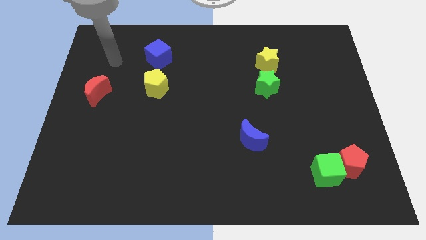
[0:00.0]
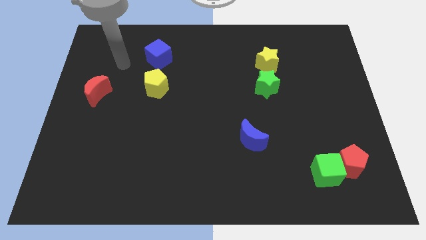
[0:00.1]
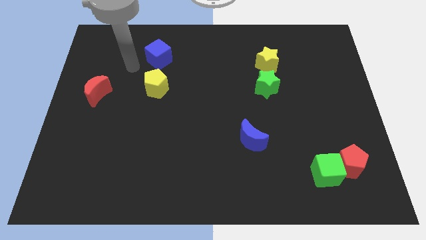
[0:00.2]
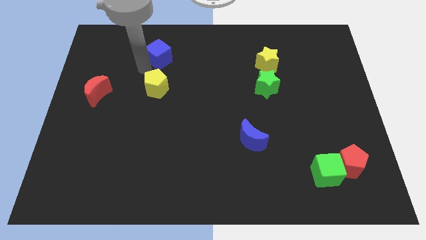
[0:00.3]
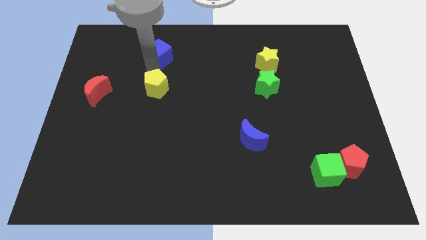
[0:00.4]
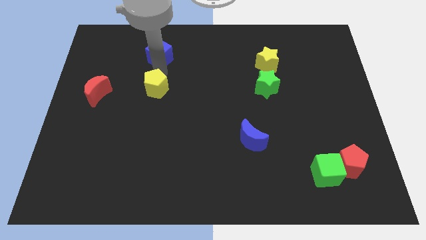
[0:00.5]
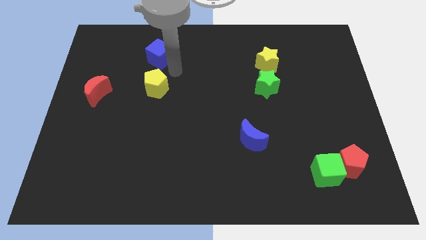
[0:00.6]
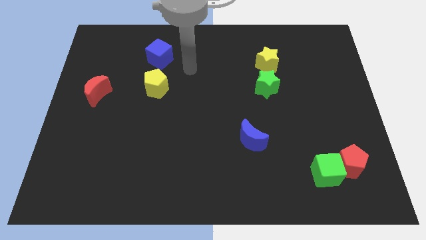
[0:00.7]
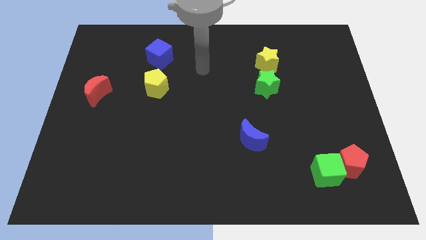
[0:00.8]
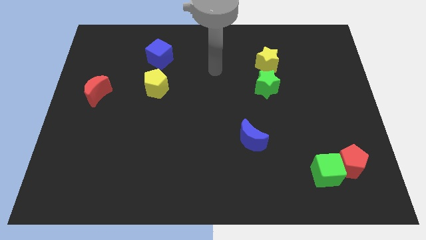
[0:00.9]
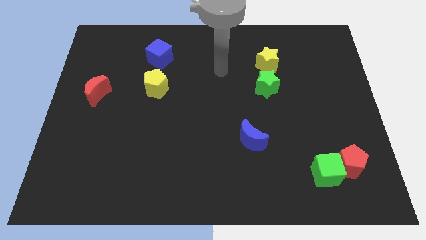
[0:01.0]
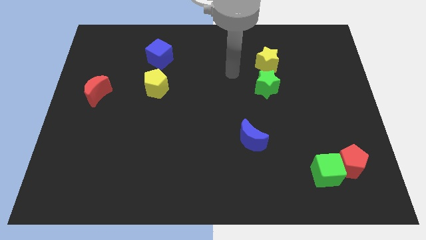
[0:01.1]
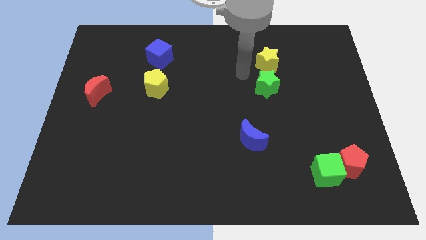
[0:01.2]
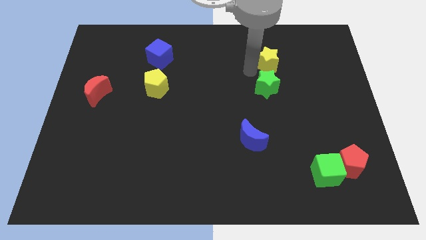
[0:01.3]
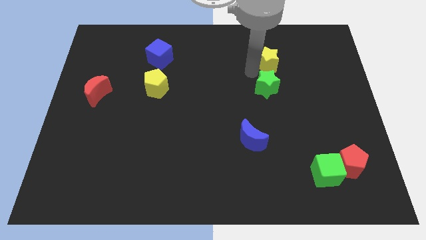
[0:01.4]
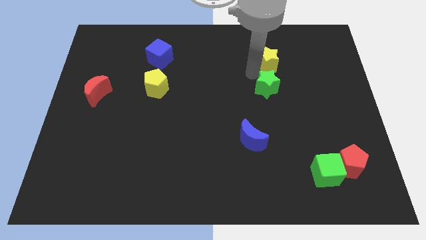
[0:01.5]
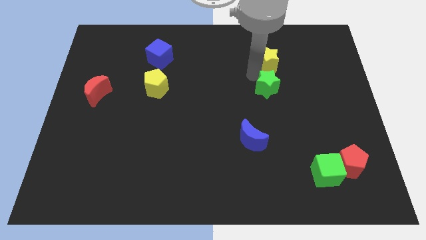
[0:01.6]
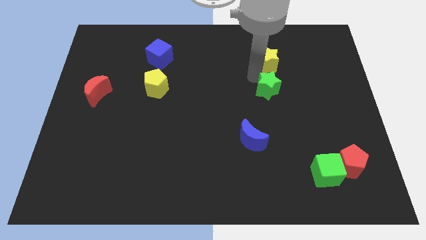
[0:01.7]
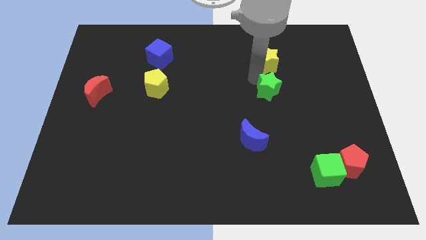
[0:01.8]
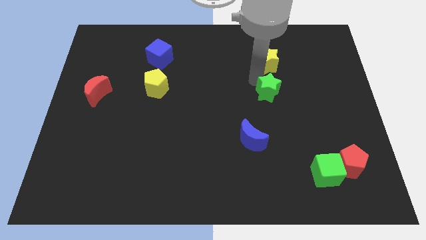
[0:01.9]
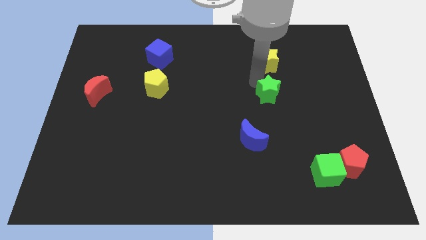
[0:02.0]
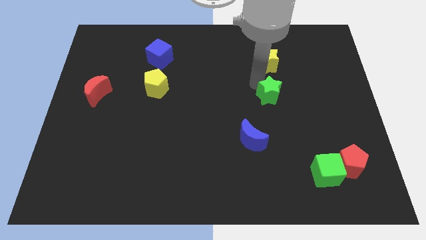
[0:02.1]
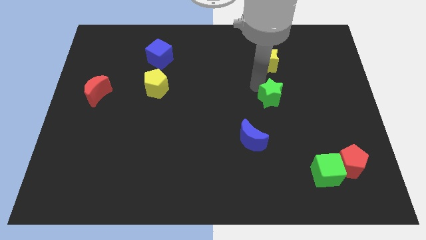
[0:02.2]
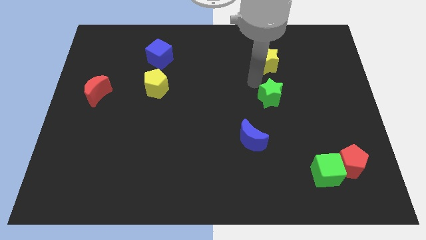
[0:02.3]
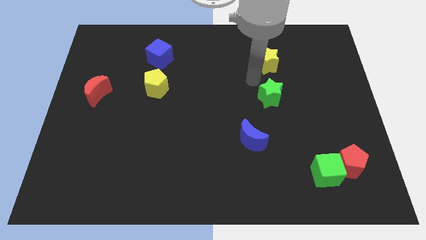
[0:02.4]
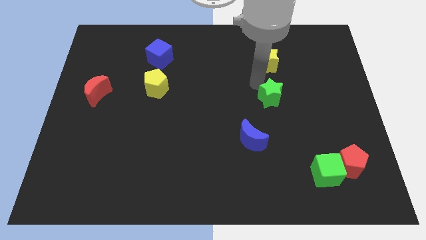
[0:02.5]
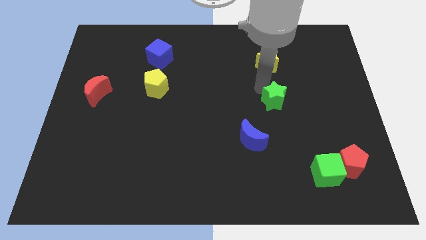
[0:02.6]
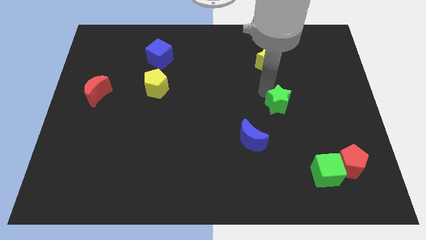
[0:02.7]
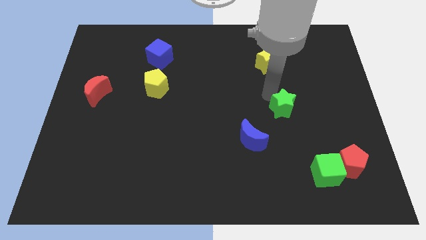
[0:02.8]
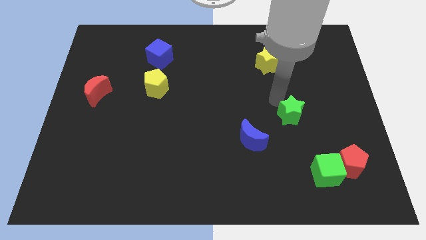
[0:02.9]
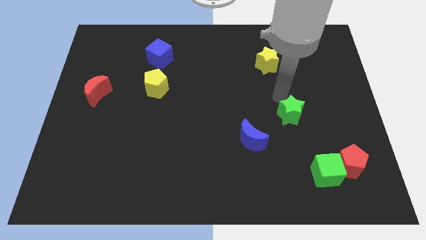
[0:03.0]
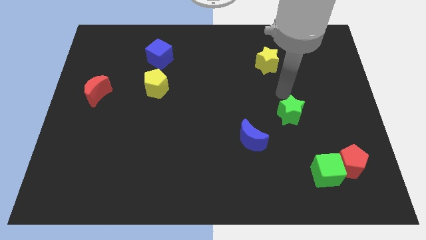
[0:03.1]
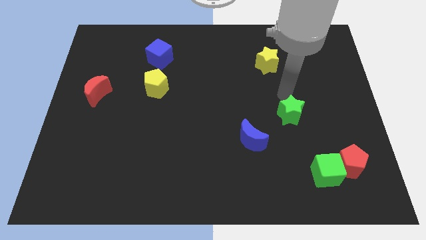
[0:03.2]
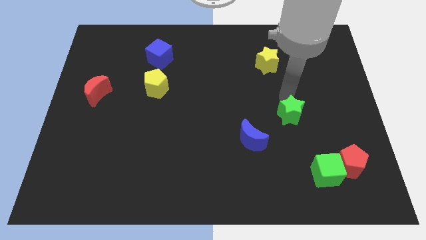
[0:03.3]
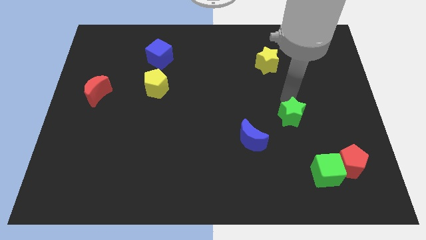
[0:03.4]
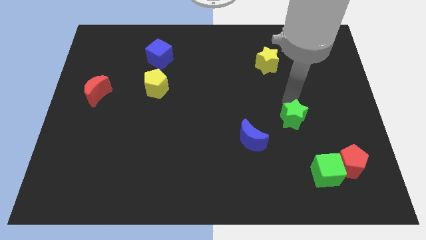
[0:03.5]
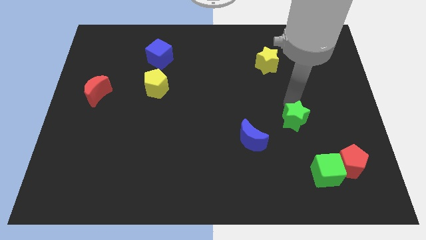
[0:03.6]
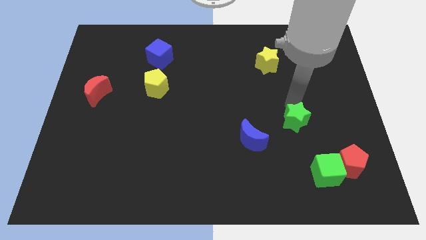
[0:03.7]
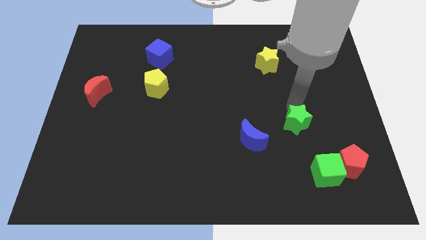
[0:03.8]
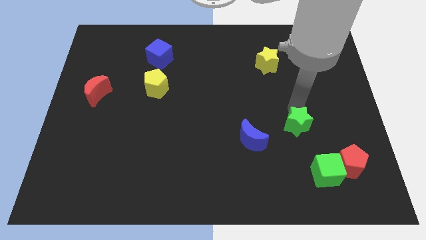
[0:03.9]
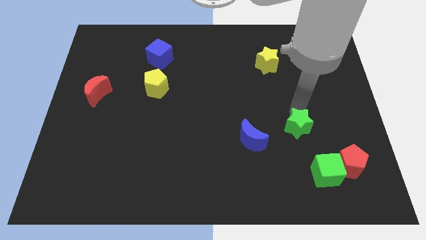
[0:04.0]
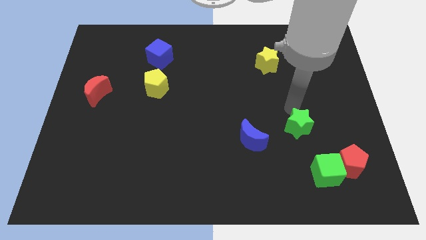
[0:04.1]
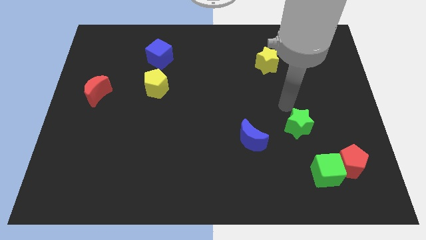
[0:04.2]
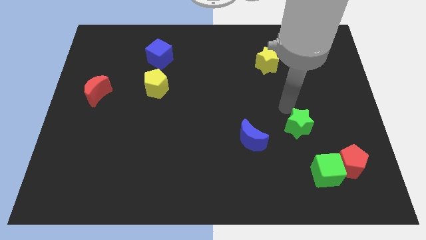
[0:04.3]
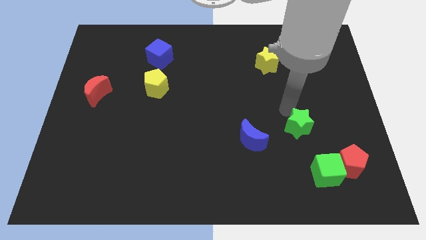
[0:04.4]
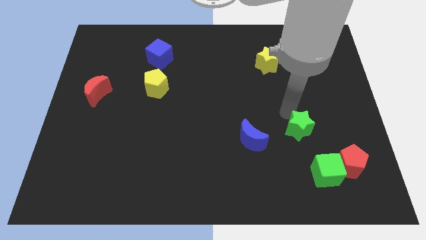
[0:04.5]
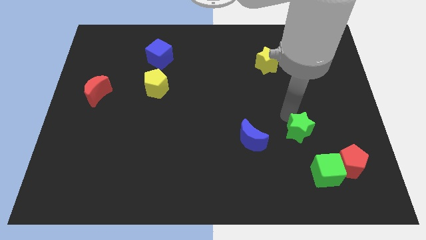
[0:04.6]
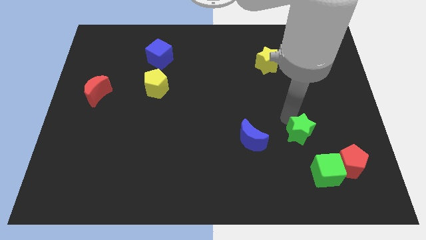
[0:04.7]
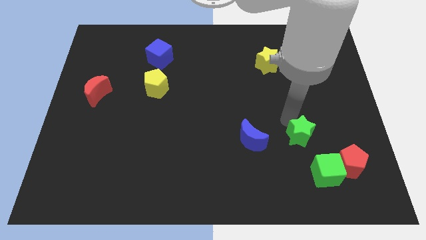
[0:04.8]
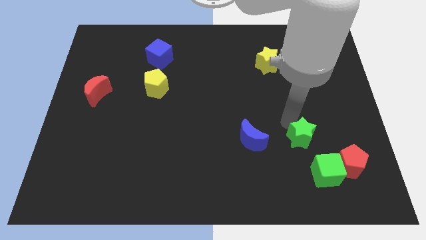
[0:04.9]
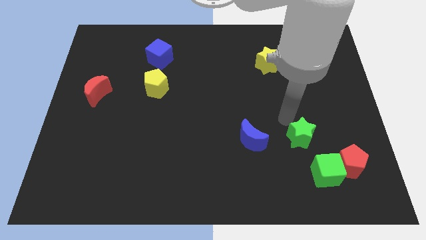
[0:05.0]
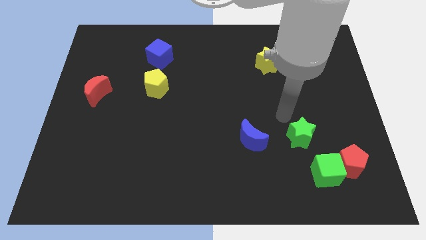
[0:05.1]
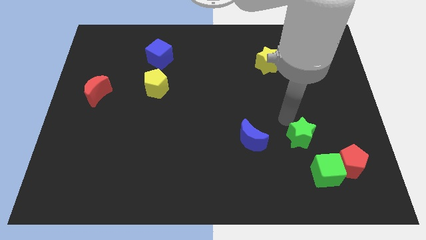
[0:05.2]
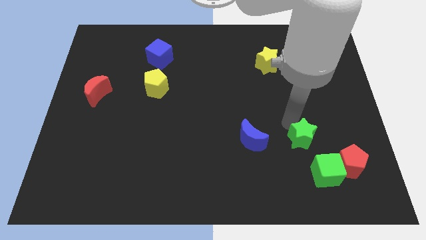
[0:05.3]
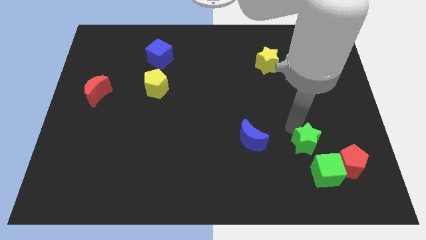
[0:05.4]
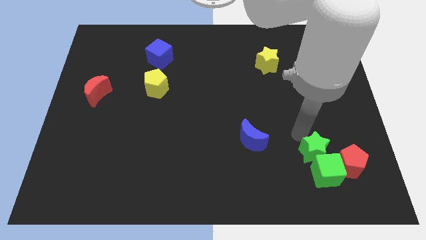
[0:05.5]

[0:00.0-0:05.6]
push the green star to the green cube

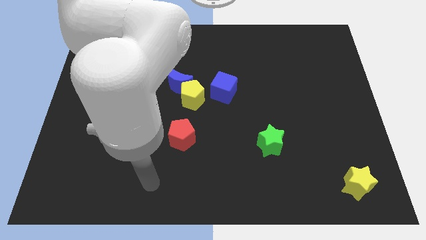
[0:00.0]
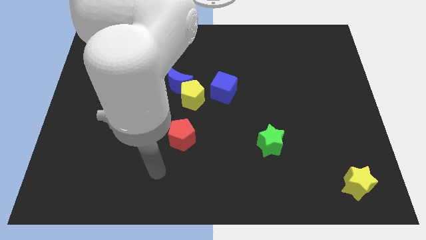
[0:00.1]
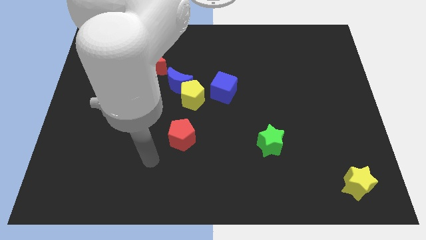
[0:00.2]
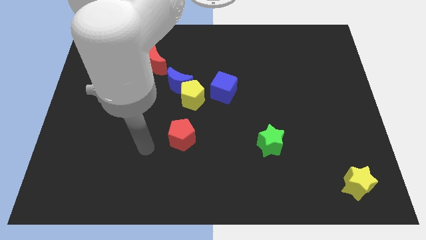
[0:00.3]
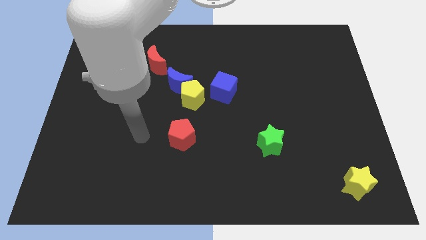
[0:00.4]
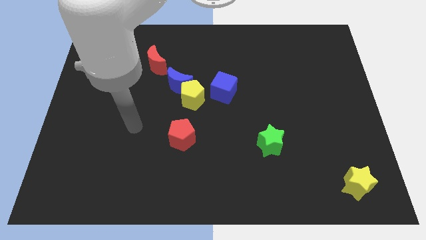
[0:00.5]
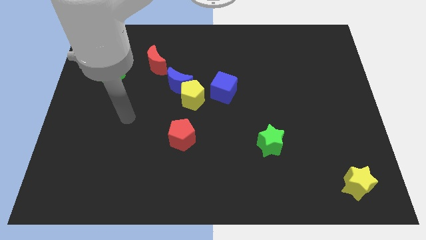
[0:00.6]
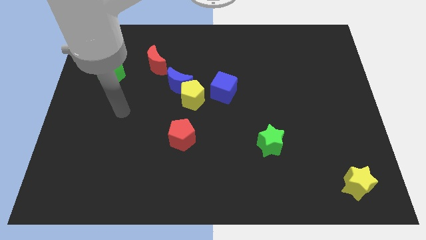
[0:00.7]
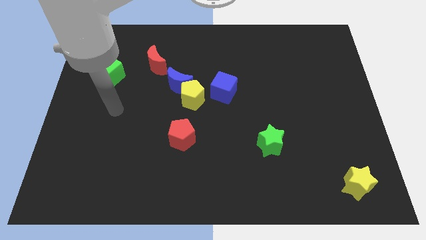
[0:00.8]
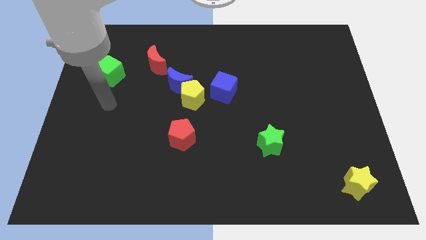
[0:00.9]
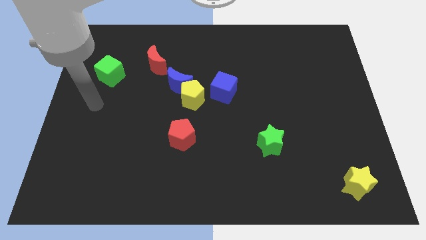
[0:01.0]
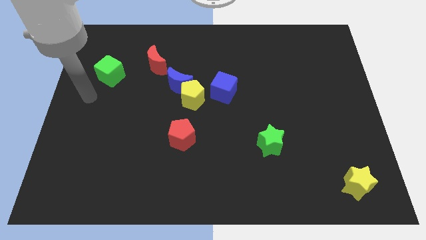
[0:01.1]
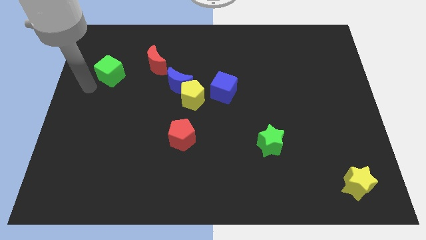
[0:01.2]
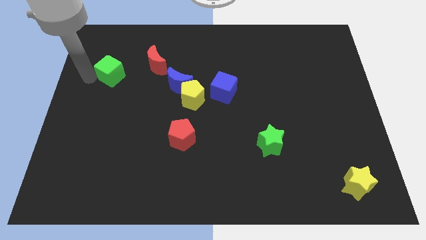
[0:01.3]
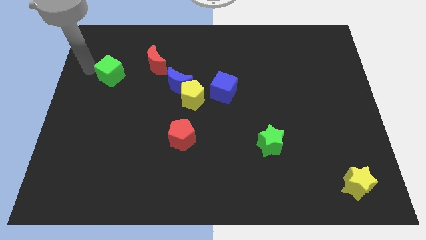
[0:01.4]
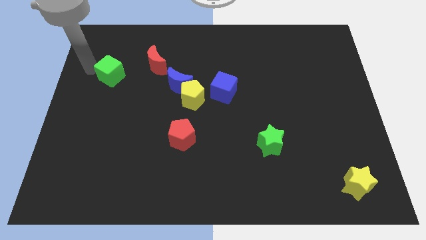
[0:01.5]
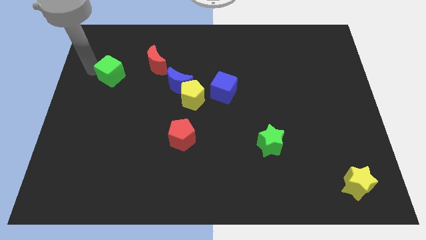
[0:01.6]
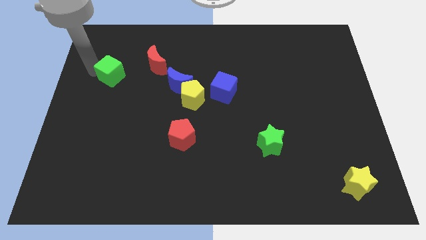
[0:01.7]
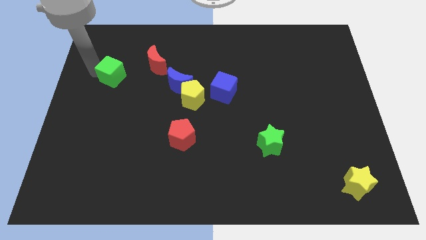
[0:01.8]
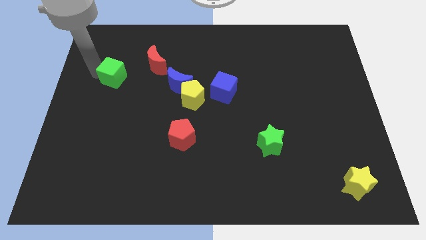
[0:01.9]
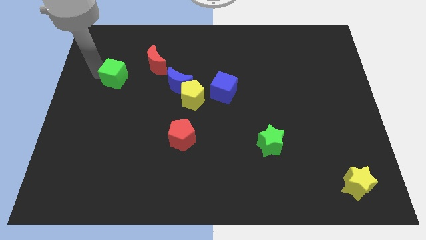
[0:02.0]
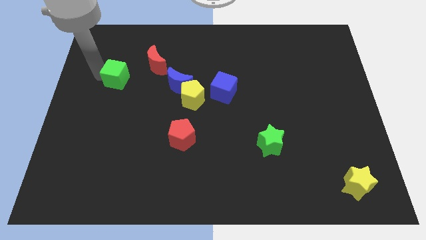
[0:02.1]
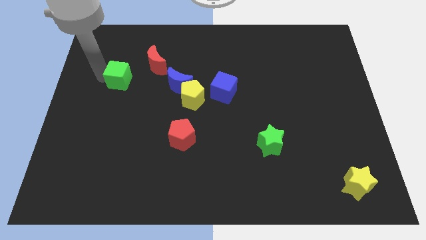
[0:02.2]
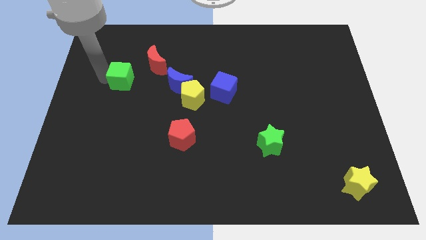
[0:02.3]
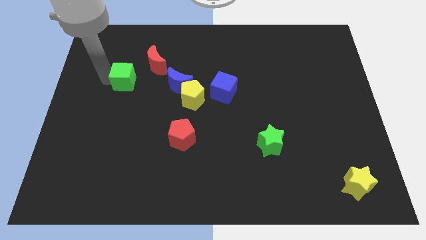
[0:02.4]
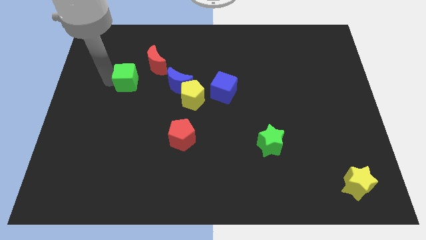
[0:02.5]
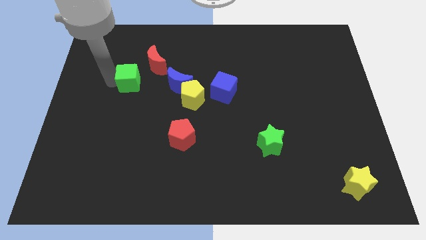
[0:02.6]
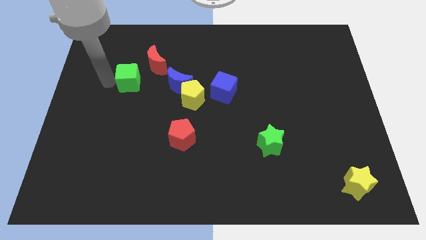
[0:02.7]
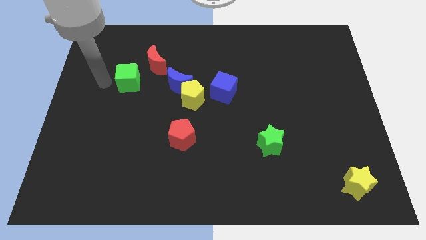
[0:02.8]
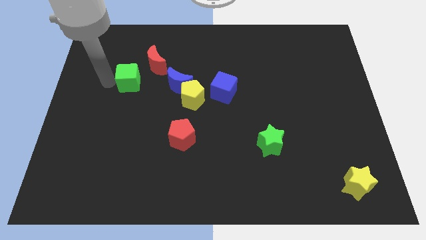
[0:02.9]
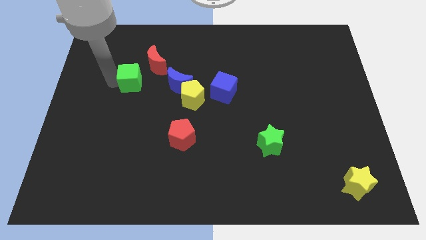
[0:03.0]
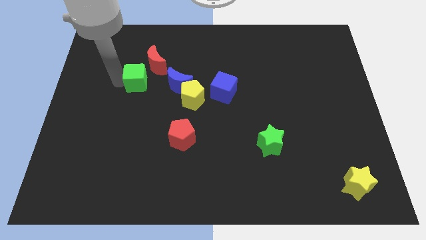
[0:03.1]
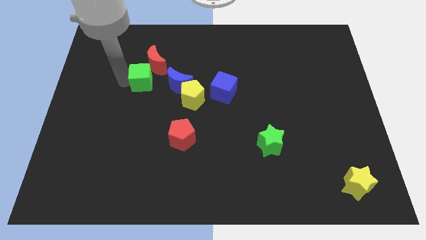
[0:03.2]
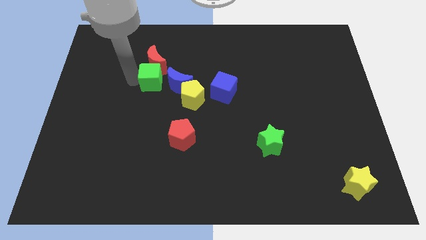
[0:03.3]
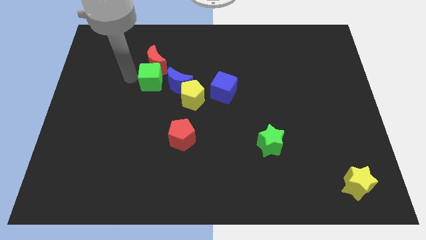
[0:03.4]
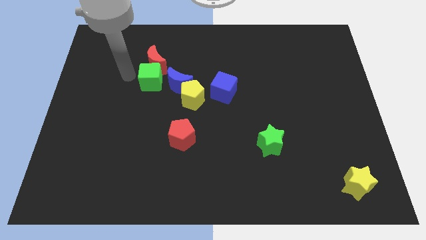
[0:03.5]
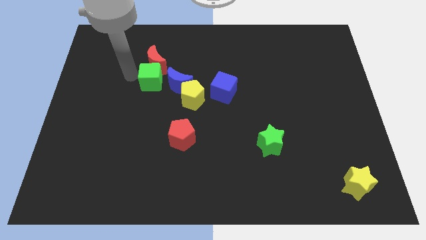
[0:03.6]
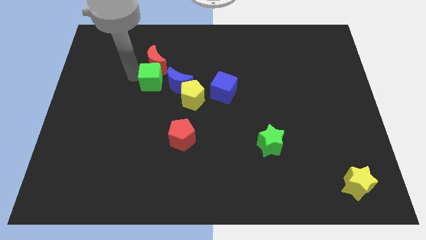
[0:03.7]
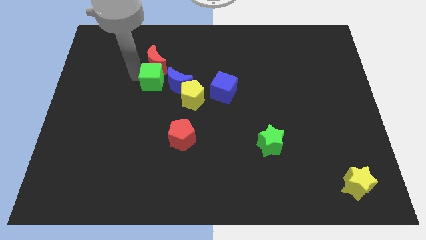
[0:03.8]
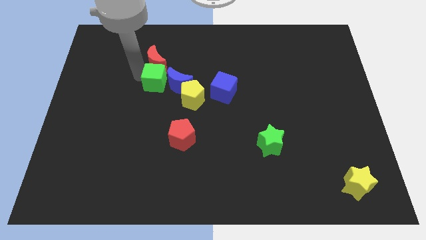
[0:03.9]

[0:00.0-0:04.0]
put the green cube next to the blue moon
